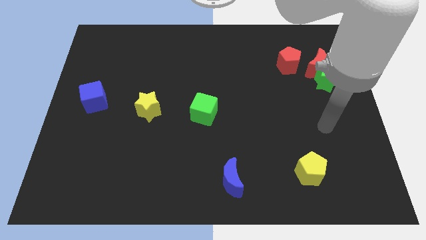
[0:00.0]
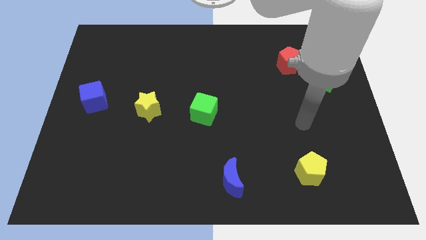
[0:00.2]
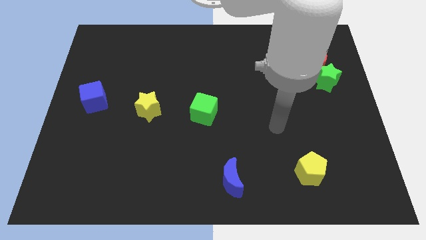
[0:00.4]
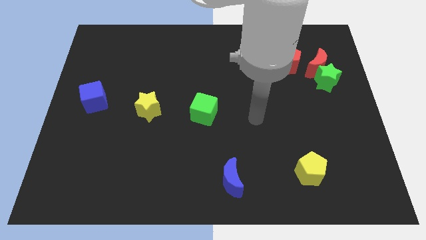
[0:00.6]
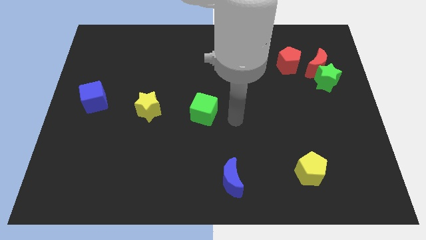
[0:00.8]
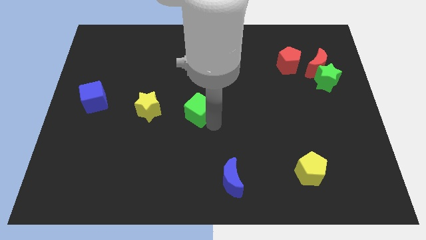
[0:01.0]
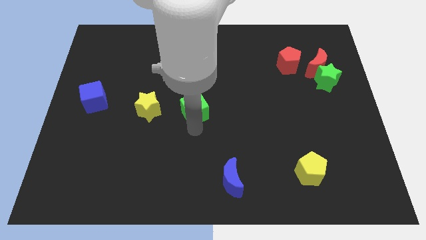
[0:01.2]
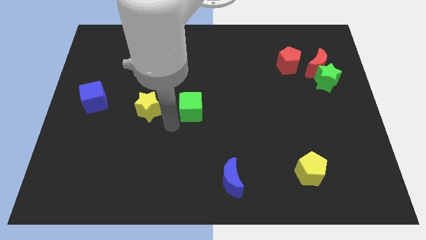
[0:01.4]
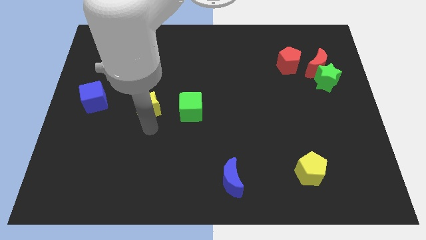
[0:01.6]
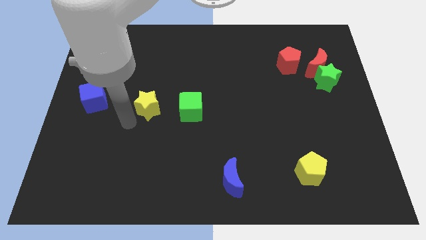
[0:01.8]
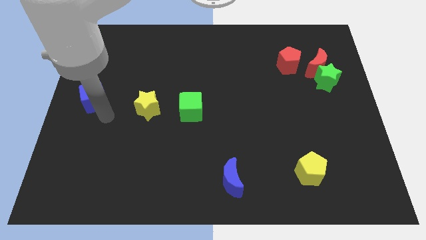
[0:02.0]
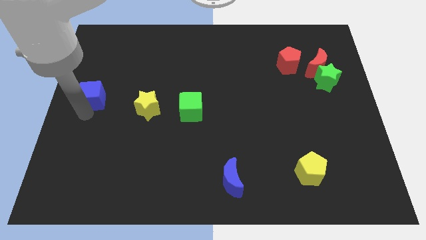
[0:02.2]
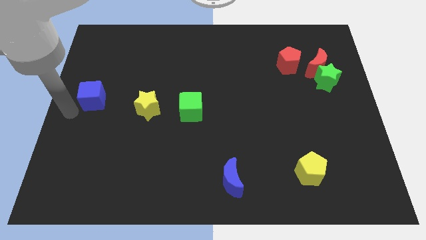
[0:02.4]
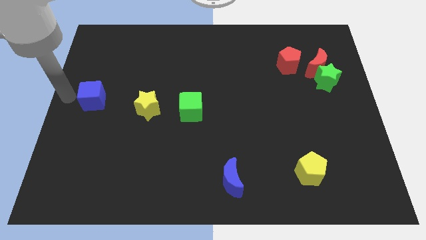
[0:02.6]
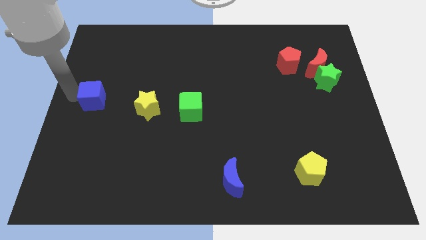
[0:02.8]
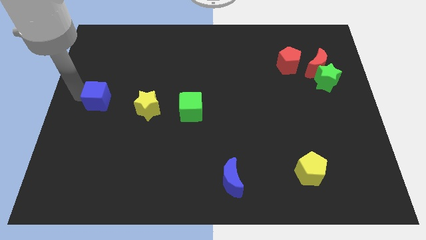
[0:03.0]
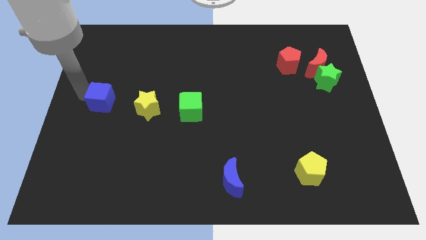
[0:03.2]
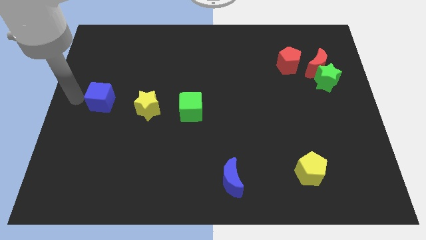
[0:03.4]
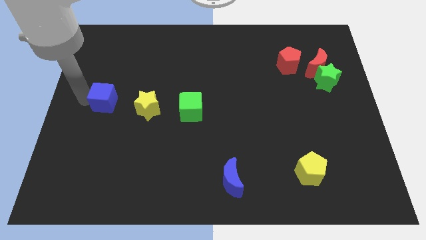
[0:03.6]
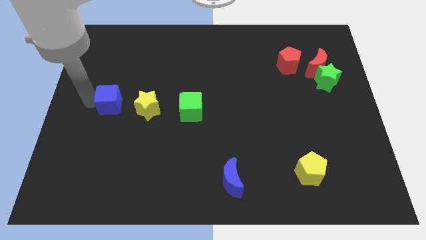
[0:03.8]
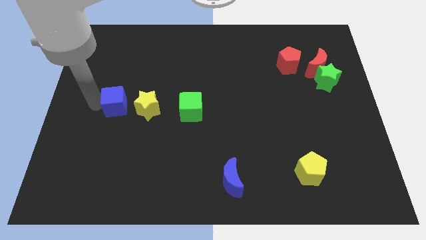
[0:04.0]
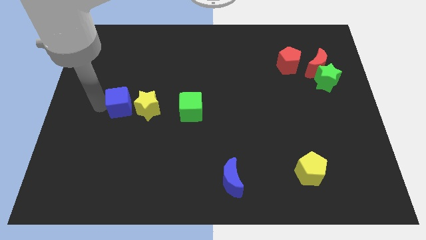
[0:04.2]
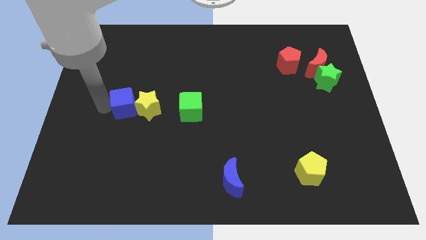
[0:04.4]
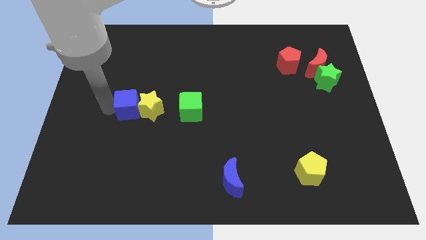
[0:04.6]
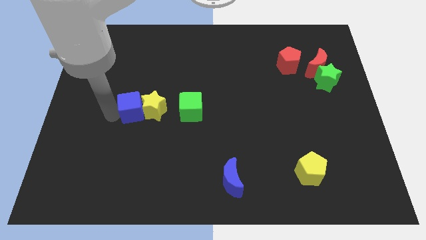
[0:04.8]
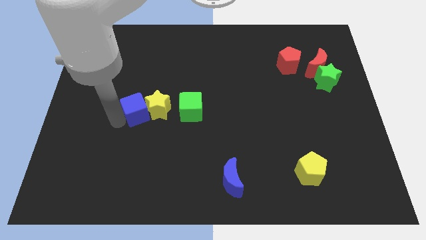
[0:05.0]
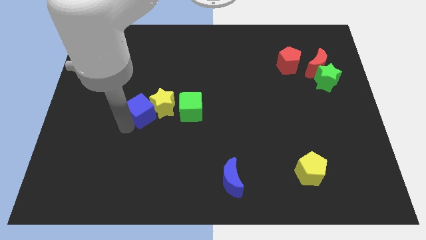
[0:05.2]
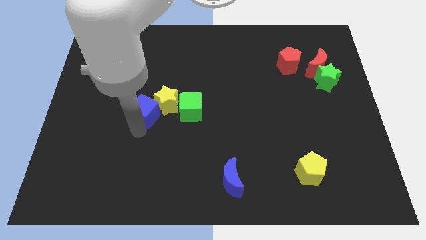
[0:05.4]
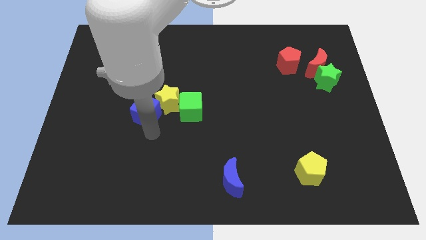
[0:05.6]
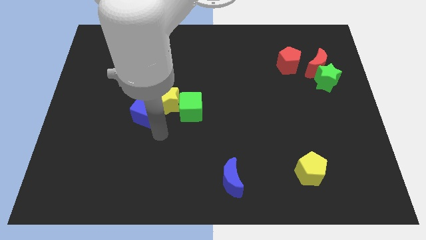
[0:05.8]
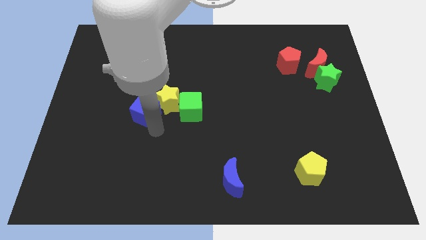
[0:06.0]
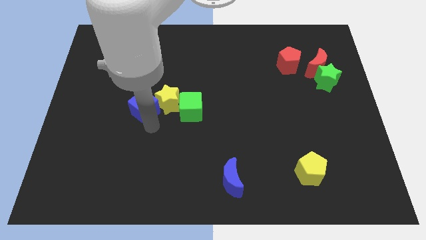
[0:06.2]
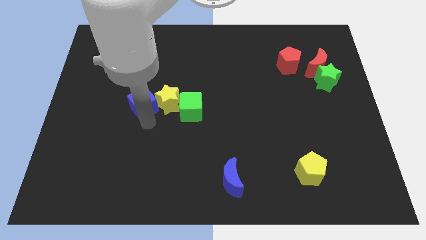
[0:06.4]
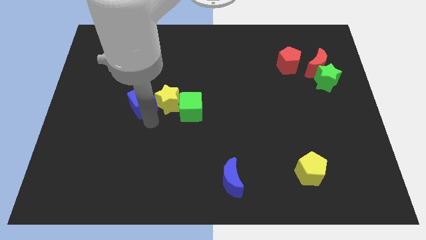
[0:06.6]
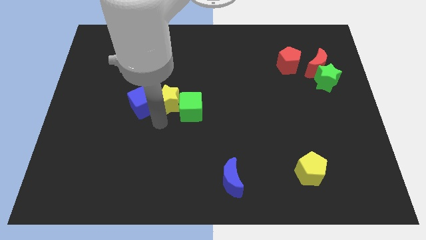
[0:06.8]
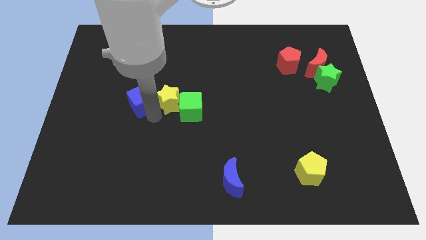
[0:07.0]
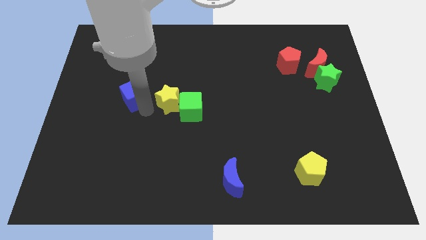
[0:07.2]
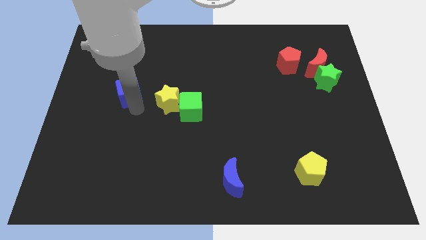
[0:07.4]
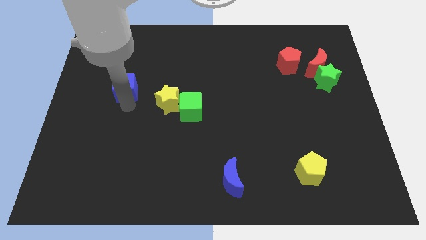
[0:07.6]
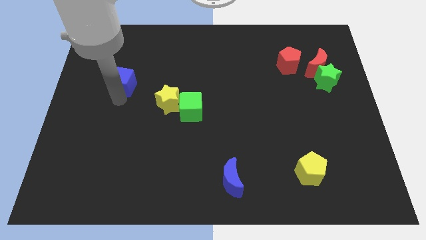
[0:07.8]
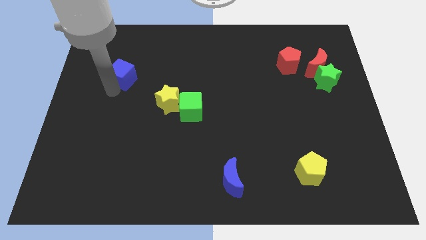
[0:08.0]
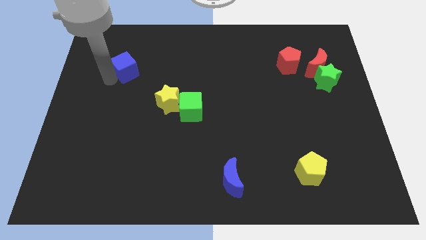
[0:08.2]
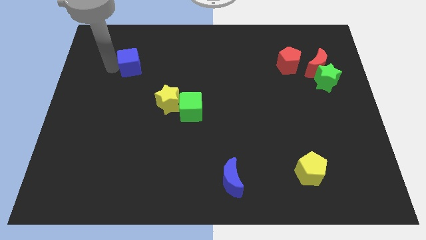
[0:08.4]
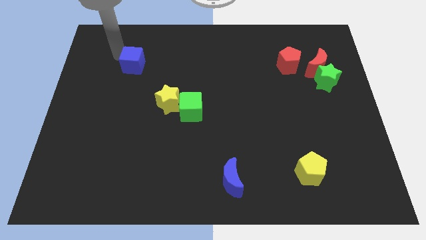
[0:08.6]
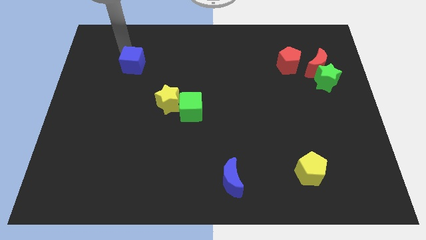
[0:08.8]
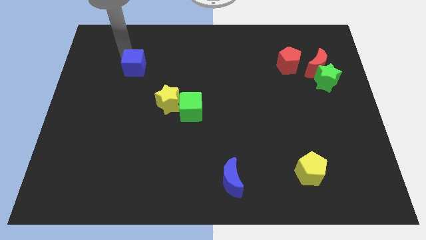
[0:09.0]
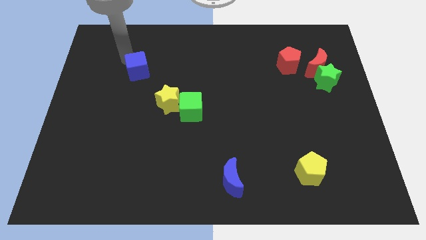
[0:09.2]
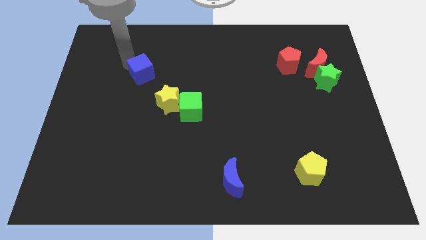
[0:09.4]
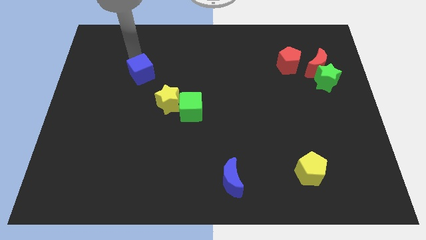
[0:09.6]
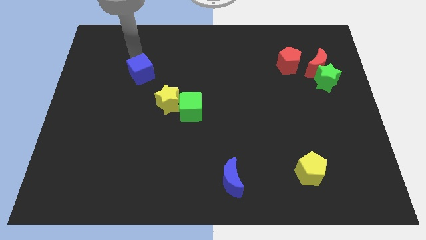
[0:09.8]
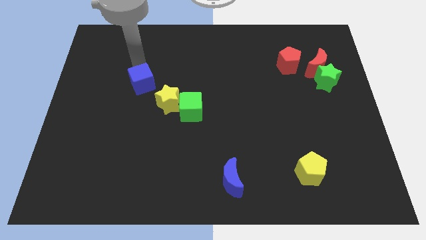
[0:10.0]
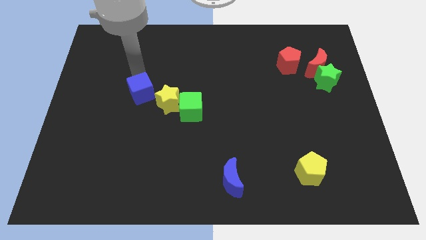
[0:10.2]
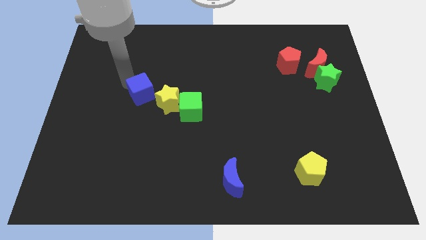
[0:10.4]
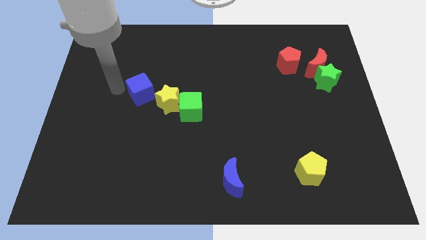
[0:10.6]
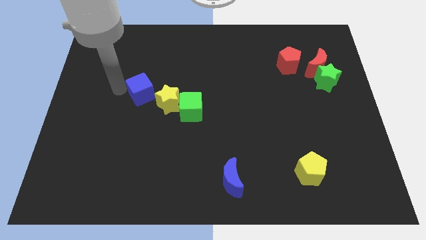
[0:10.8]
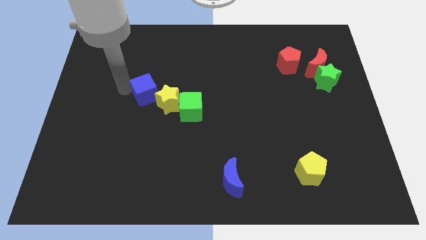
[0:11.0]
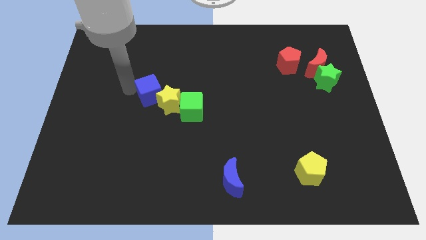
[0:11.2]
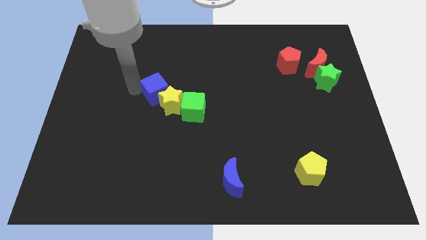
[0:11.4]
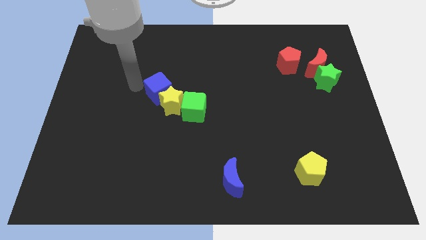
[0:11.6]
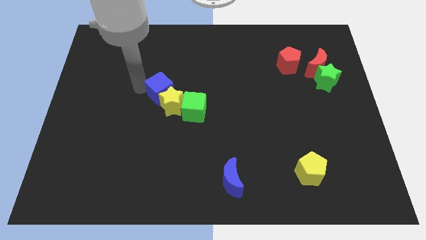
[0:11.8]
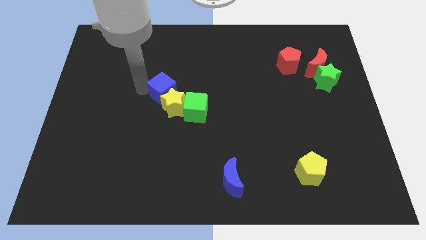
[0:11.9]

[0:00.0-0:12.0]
put the blue cube to the middle of the board

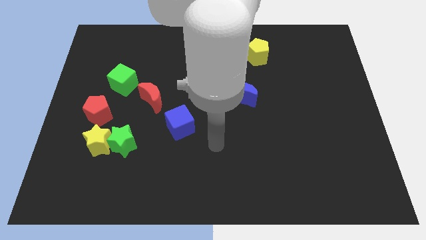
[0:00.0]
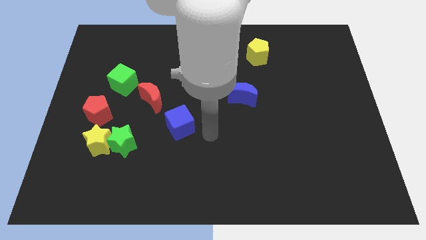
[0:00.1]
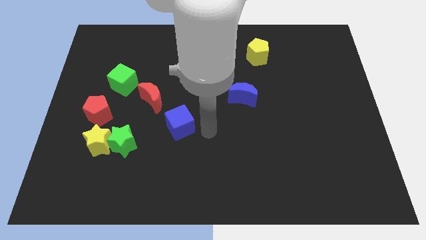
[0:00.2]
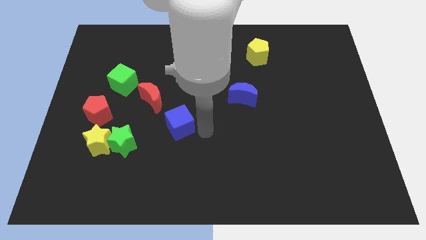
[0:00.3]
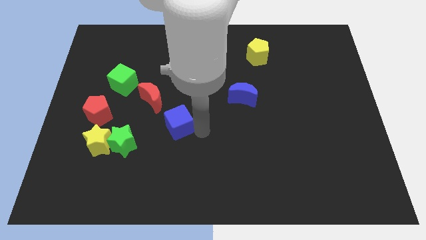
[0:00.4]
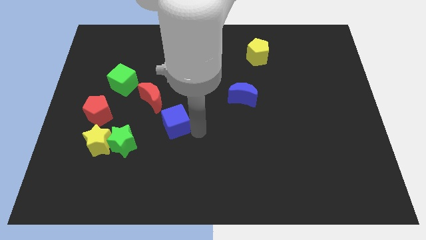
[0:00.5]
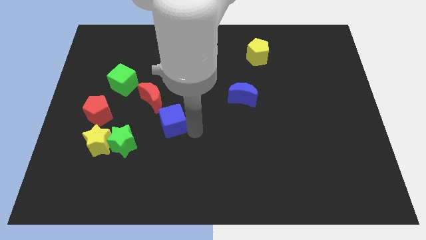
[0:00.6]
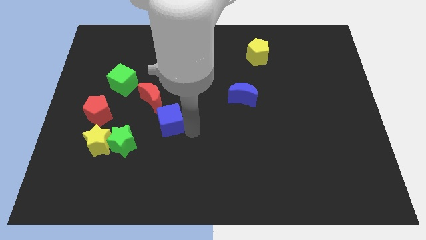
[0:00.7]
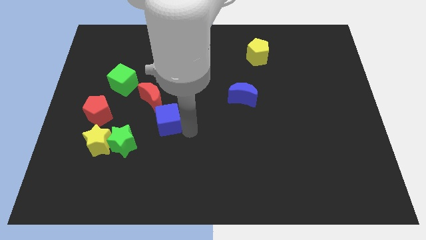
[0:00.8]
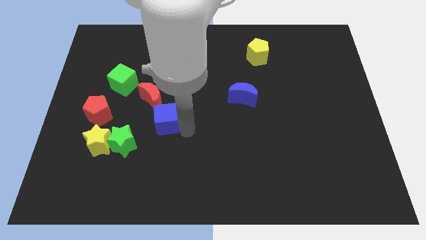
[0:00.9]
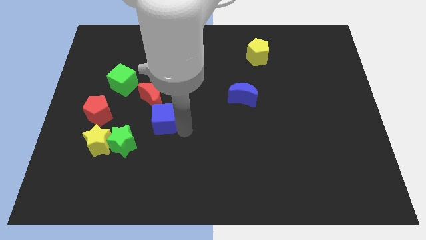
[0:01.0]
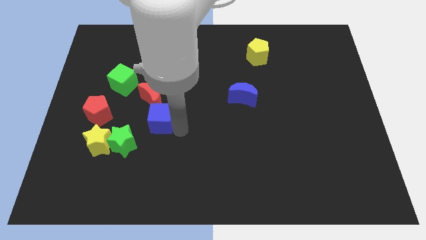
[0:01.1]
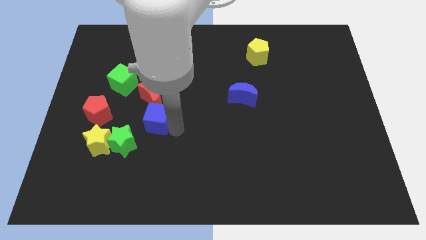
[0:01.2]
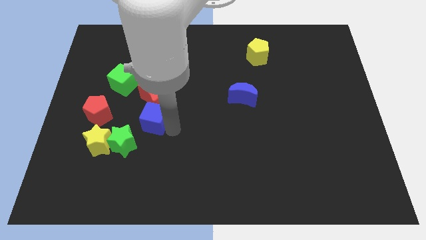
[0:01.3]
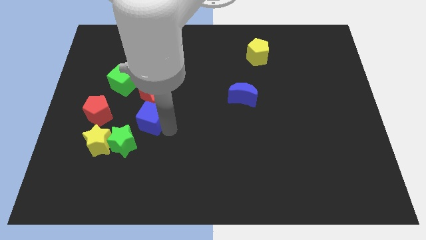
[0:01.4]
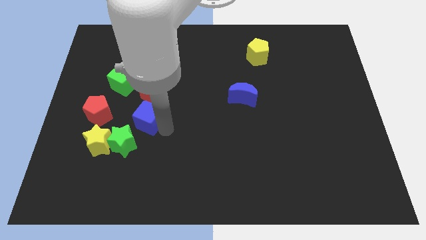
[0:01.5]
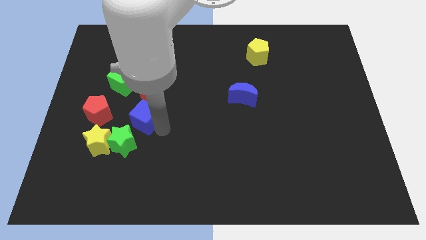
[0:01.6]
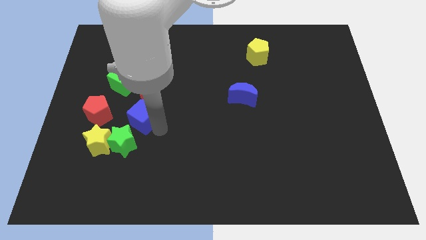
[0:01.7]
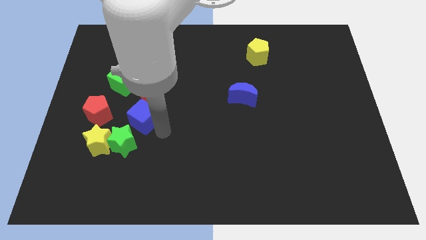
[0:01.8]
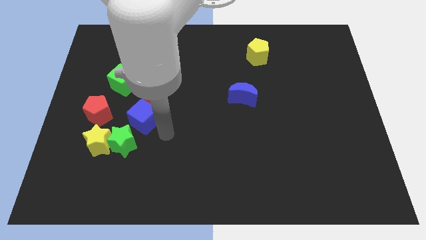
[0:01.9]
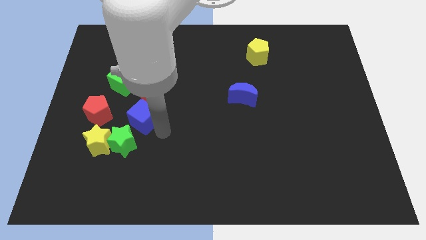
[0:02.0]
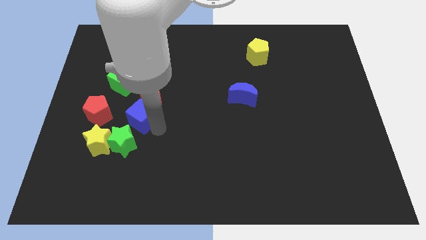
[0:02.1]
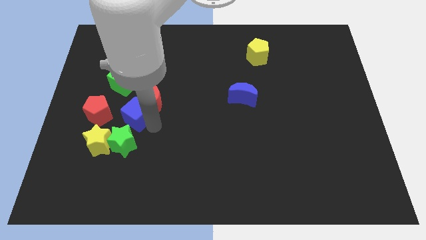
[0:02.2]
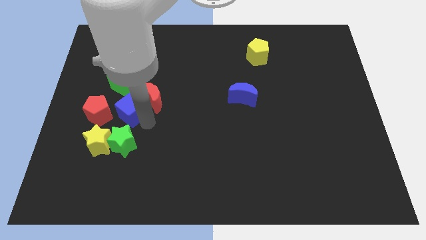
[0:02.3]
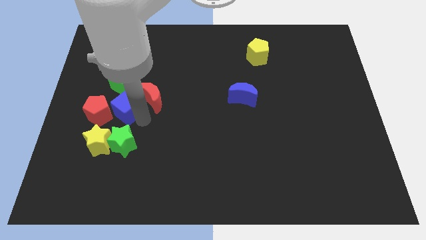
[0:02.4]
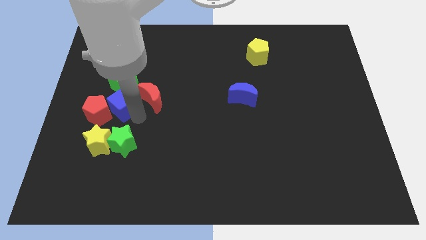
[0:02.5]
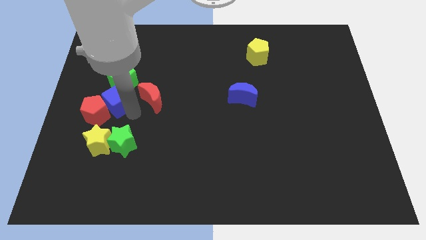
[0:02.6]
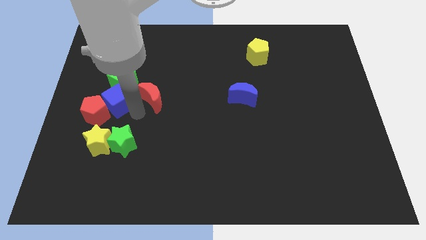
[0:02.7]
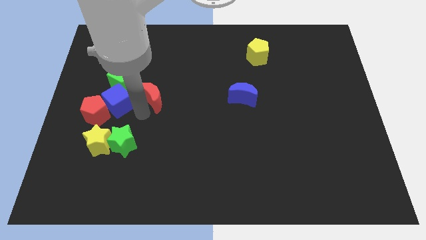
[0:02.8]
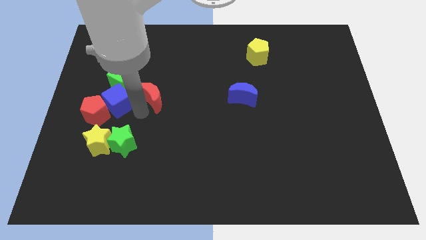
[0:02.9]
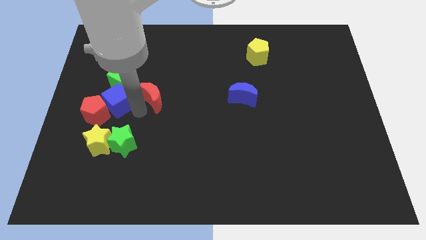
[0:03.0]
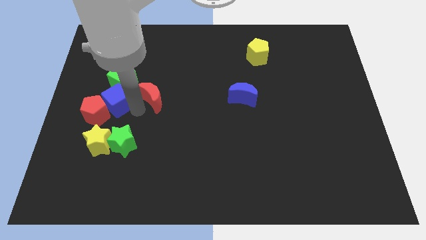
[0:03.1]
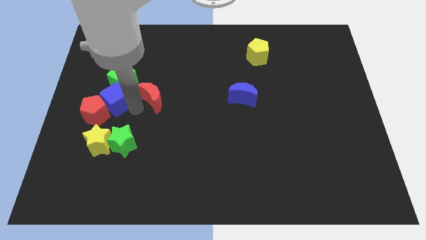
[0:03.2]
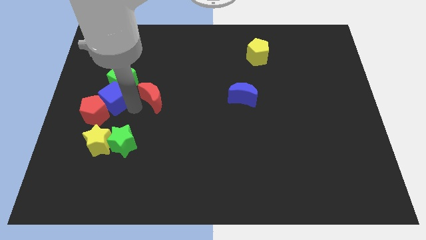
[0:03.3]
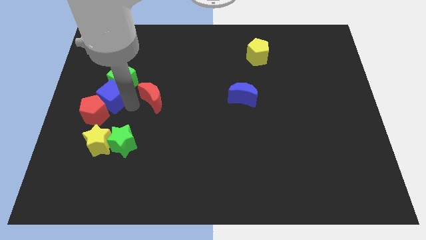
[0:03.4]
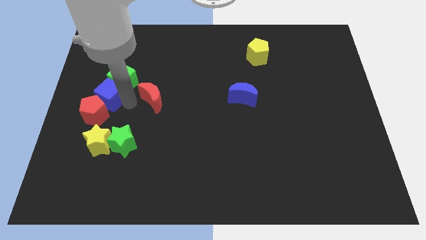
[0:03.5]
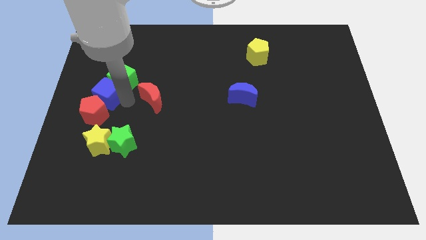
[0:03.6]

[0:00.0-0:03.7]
push the blue cube to the center left
